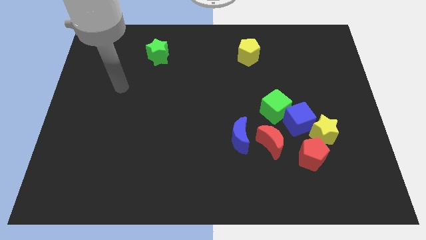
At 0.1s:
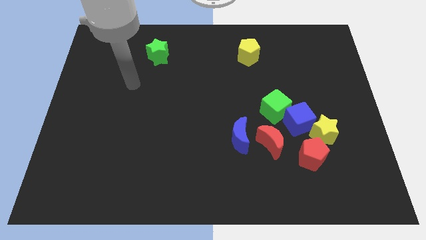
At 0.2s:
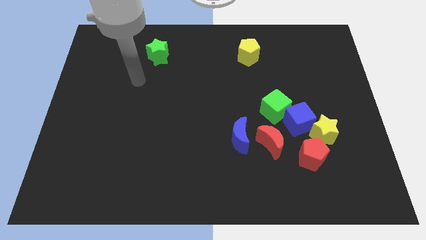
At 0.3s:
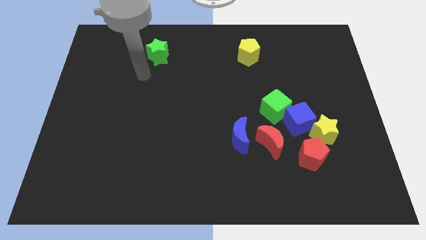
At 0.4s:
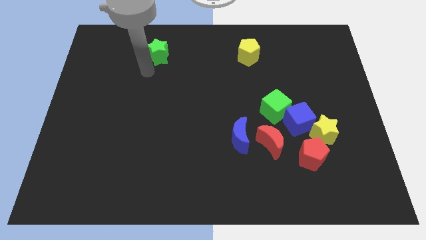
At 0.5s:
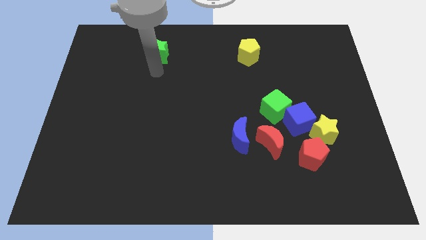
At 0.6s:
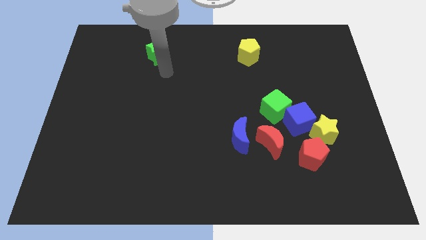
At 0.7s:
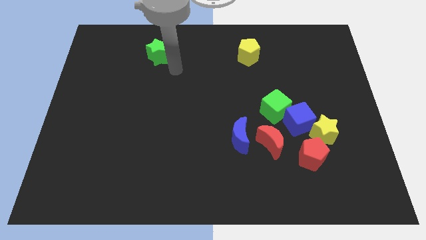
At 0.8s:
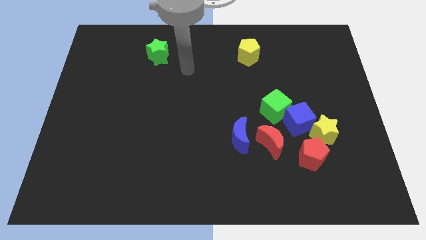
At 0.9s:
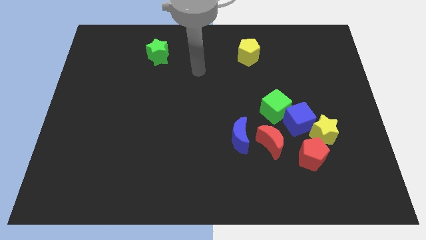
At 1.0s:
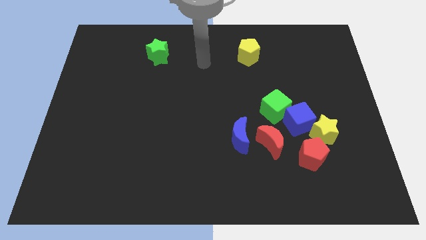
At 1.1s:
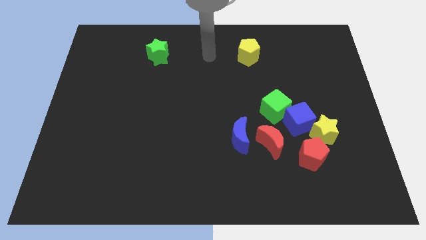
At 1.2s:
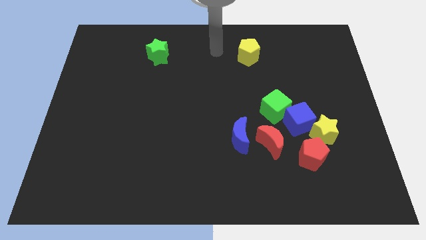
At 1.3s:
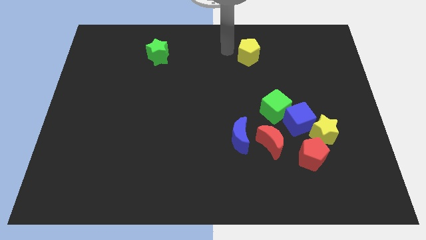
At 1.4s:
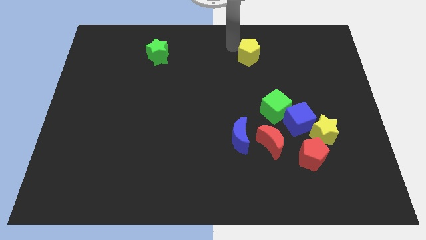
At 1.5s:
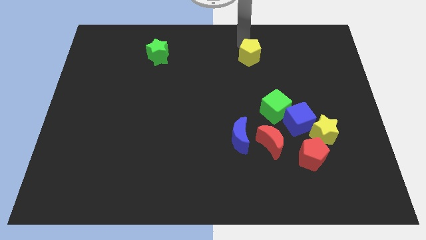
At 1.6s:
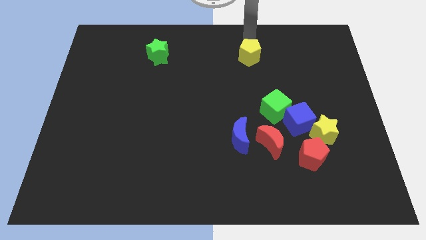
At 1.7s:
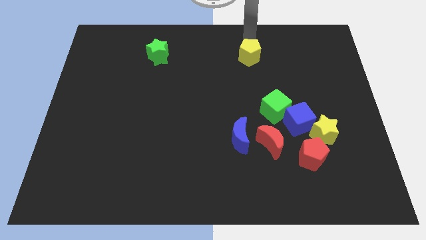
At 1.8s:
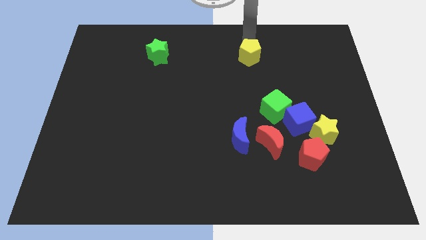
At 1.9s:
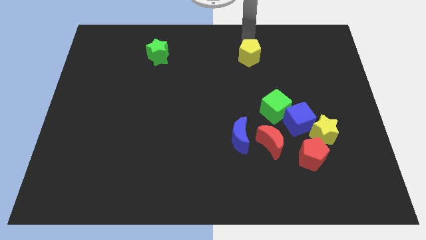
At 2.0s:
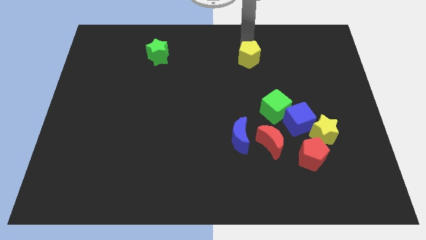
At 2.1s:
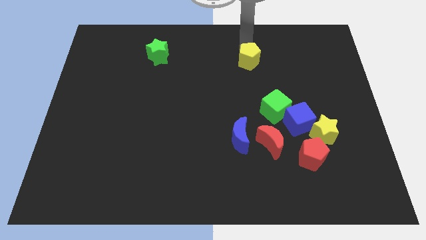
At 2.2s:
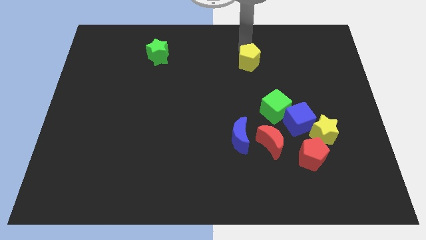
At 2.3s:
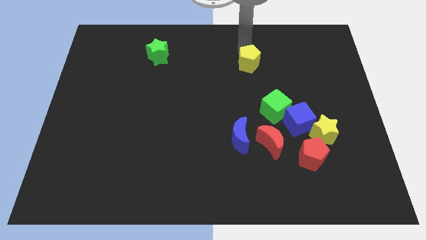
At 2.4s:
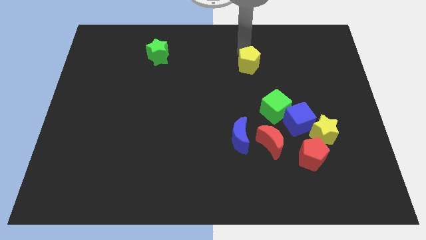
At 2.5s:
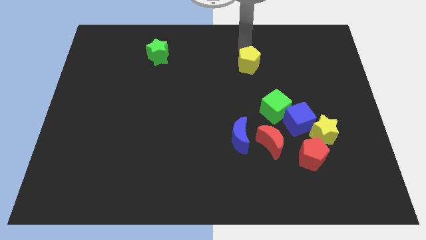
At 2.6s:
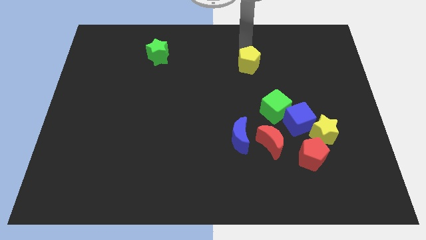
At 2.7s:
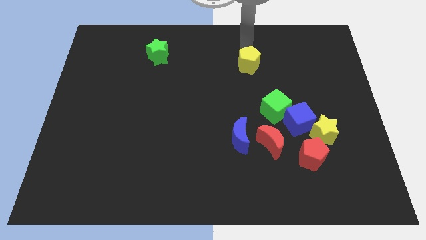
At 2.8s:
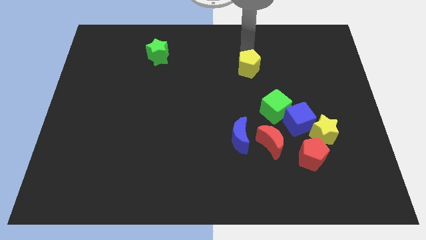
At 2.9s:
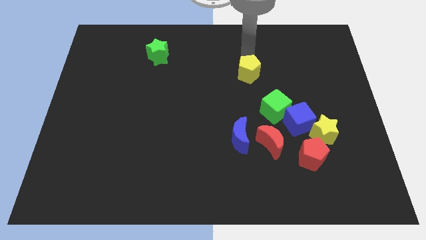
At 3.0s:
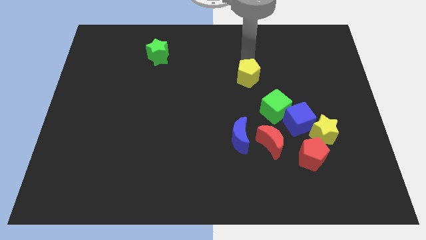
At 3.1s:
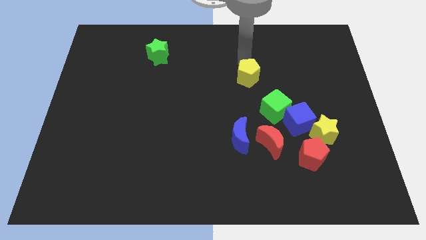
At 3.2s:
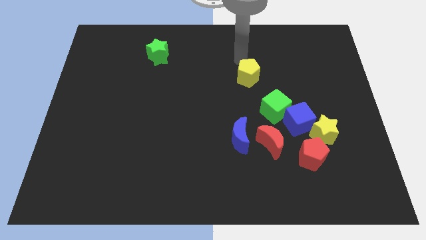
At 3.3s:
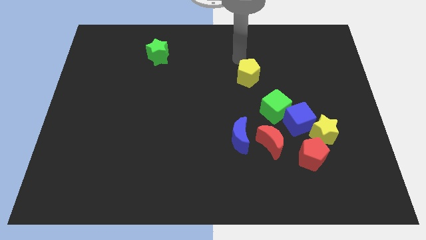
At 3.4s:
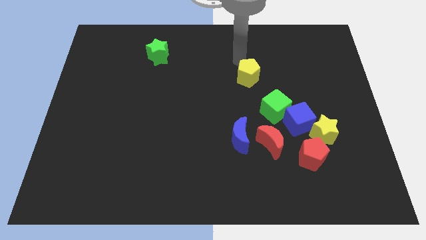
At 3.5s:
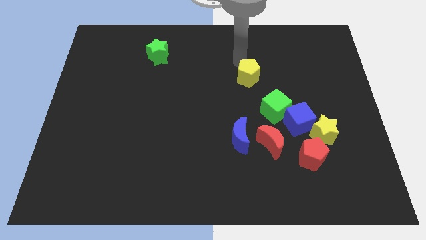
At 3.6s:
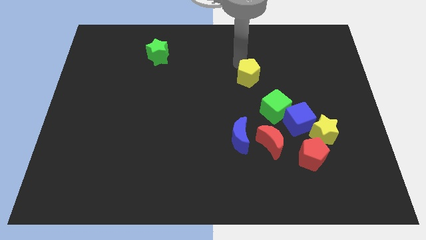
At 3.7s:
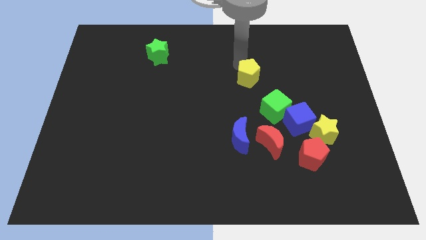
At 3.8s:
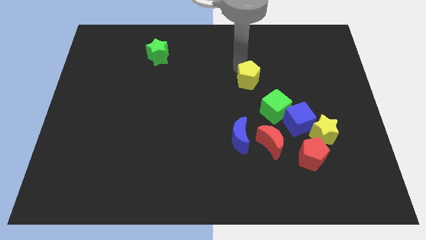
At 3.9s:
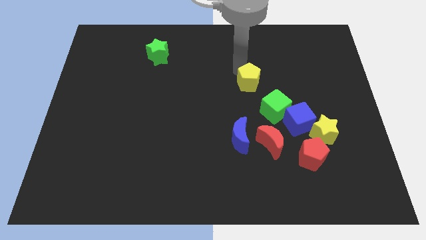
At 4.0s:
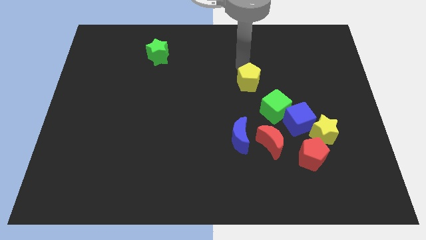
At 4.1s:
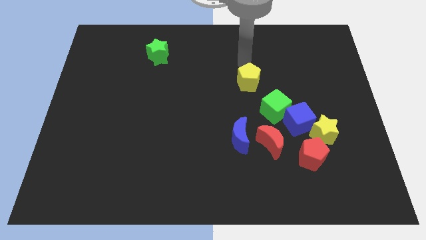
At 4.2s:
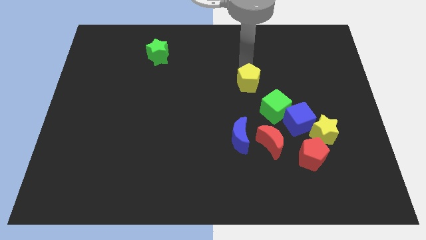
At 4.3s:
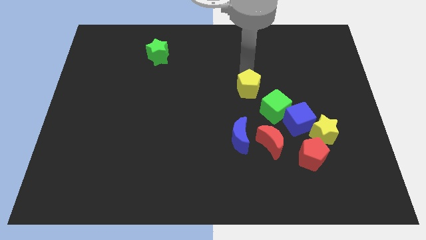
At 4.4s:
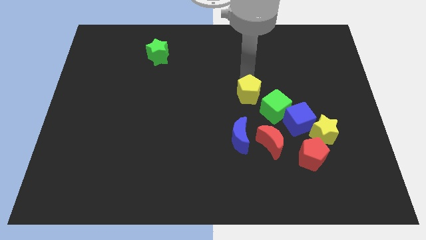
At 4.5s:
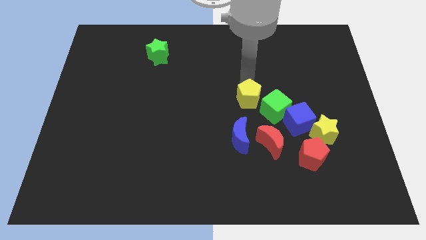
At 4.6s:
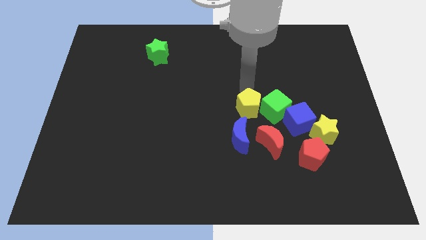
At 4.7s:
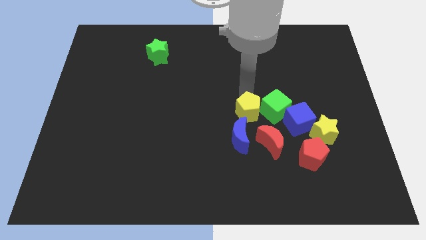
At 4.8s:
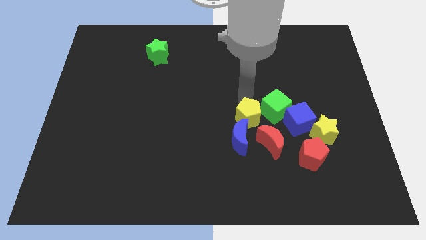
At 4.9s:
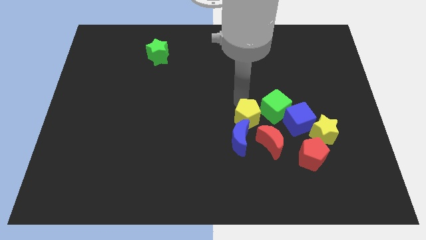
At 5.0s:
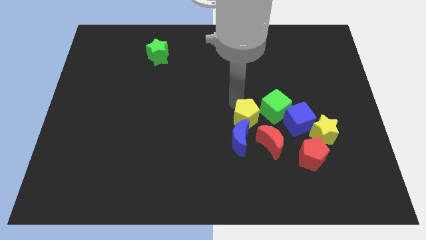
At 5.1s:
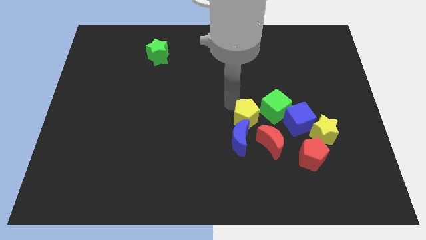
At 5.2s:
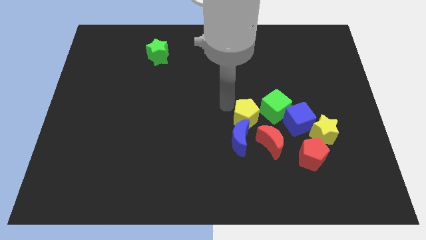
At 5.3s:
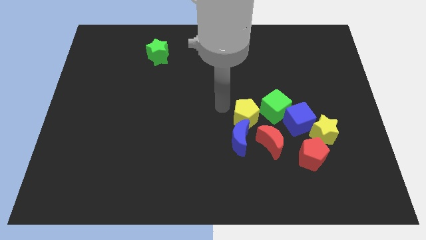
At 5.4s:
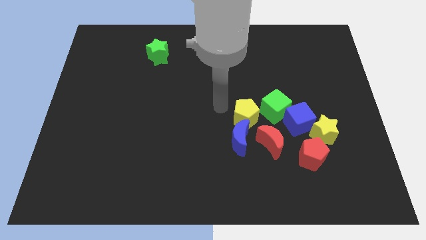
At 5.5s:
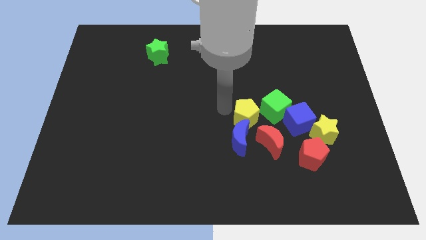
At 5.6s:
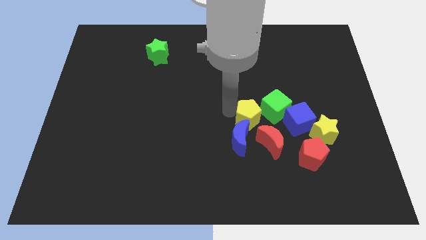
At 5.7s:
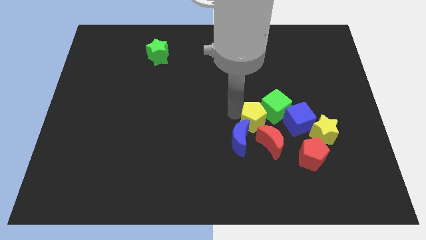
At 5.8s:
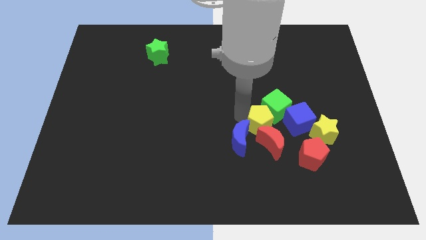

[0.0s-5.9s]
push the yellow pentagon to the bottom of the green cube

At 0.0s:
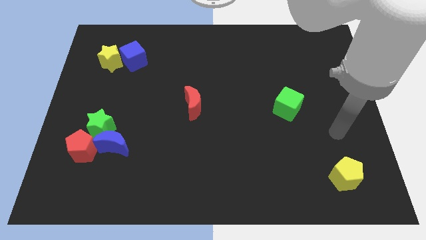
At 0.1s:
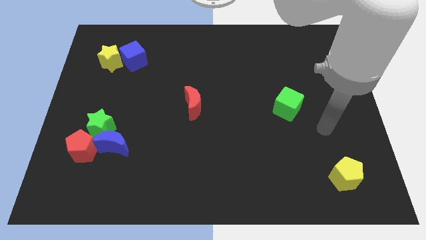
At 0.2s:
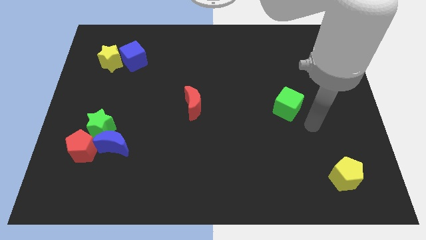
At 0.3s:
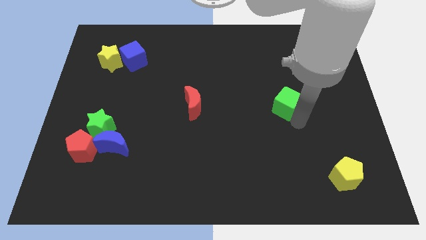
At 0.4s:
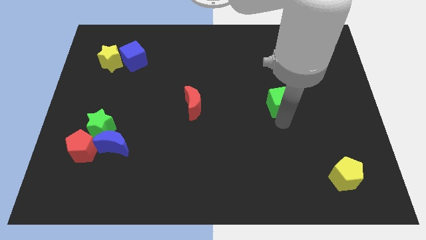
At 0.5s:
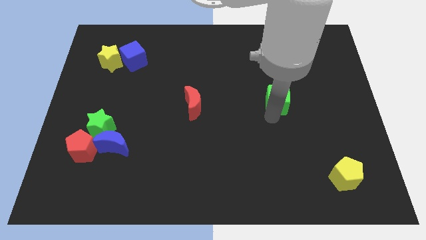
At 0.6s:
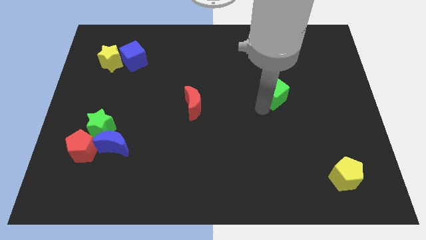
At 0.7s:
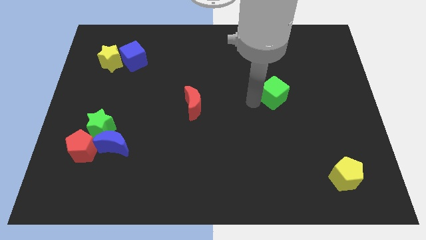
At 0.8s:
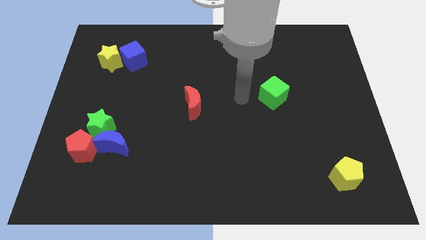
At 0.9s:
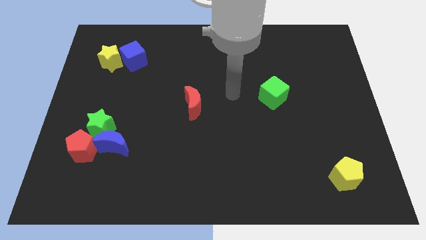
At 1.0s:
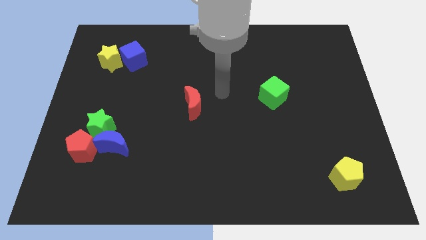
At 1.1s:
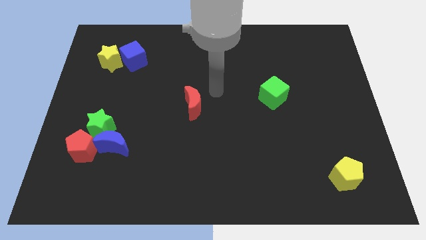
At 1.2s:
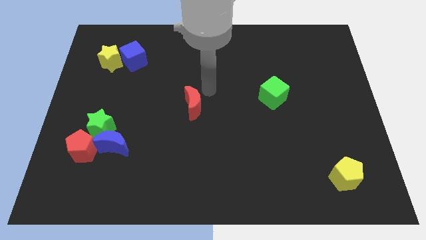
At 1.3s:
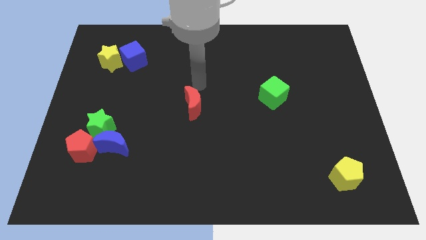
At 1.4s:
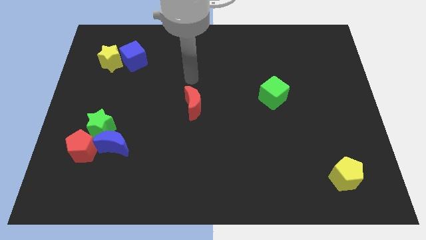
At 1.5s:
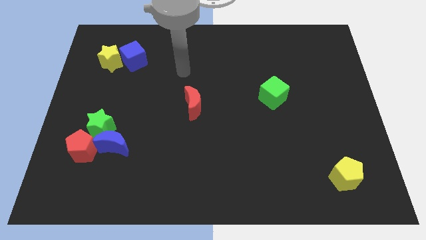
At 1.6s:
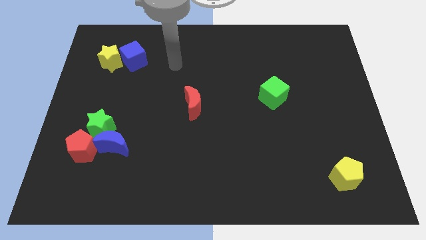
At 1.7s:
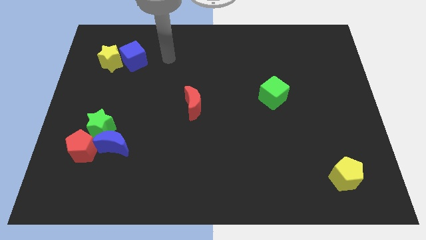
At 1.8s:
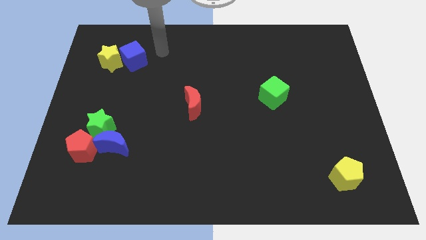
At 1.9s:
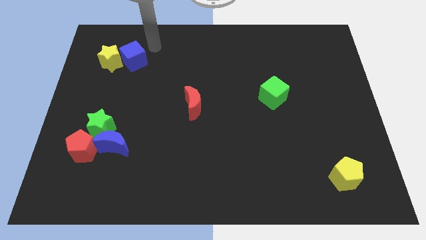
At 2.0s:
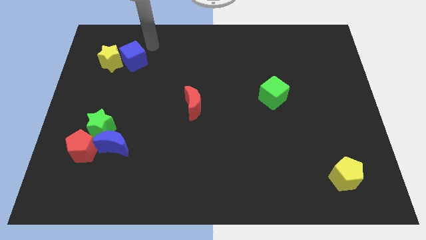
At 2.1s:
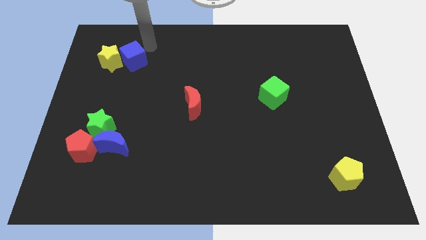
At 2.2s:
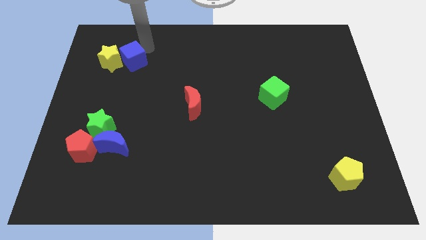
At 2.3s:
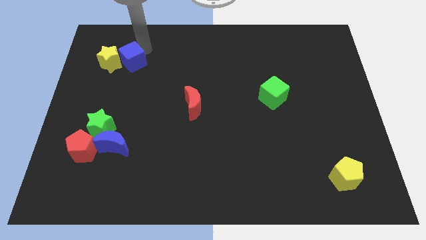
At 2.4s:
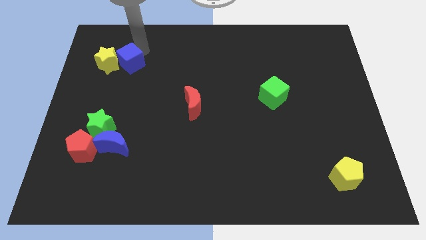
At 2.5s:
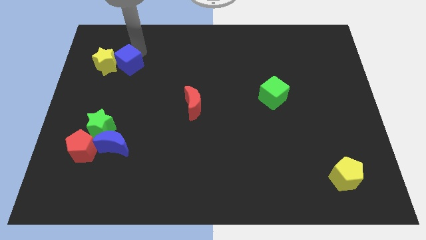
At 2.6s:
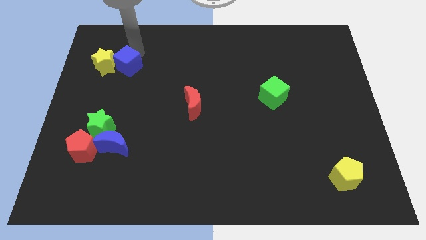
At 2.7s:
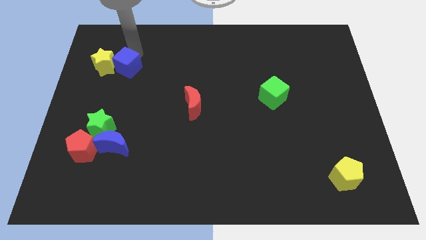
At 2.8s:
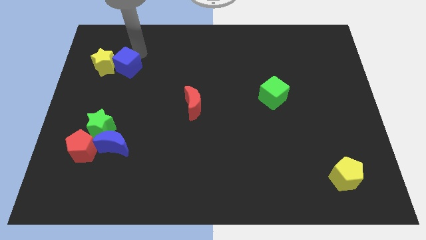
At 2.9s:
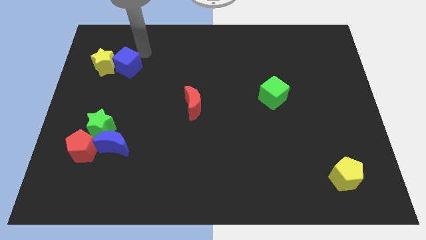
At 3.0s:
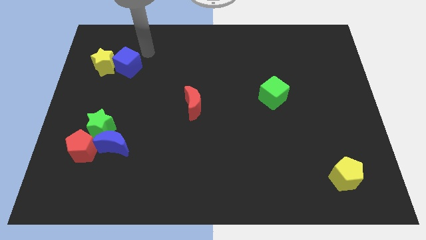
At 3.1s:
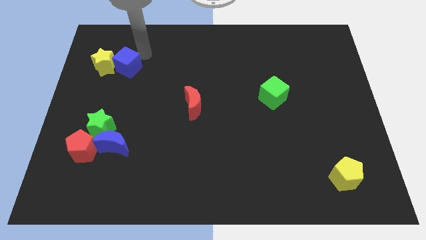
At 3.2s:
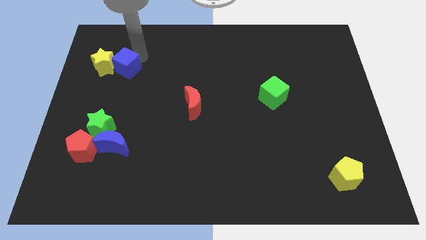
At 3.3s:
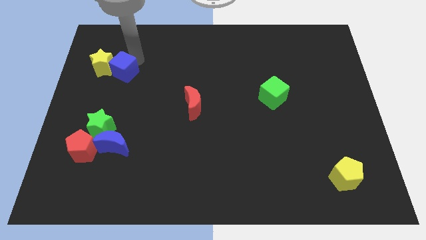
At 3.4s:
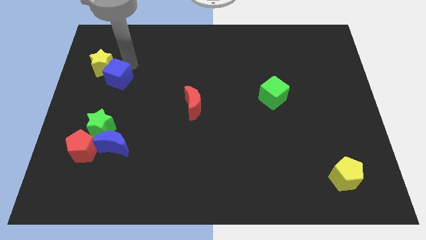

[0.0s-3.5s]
put the blue cube above the green star
